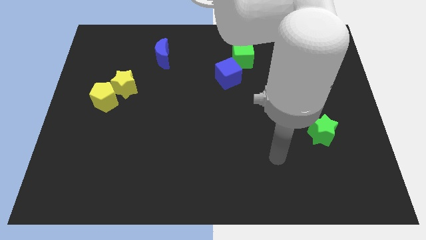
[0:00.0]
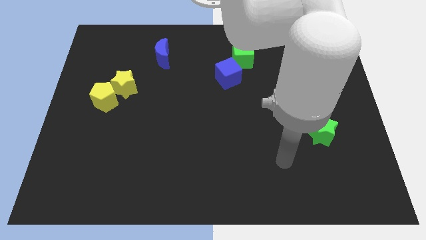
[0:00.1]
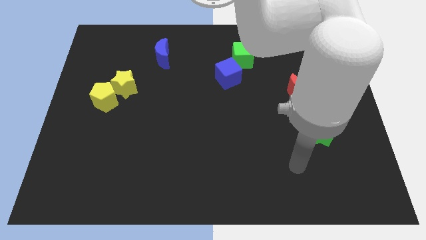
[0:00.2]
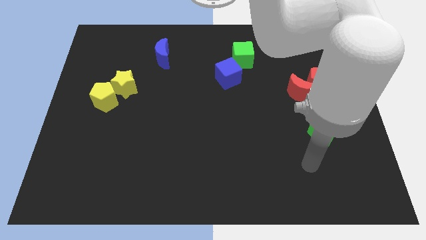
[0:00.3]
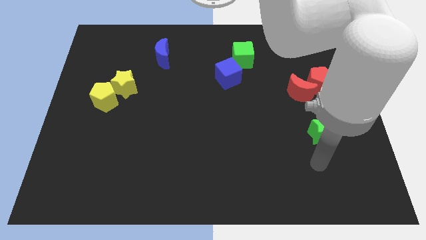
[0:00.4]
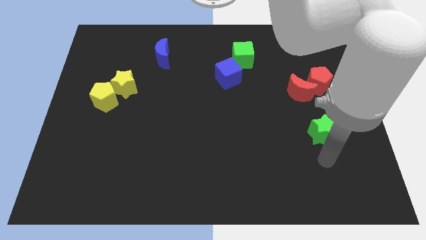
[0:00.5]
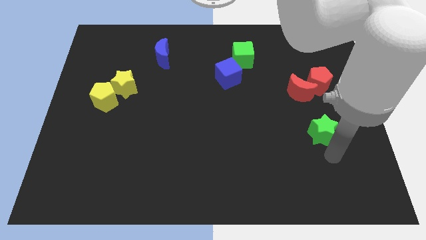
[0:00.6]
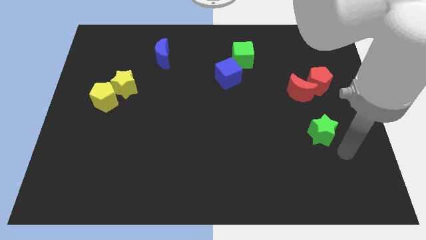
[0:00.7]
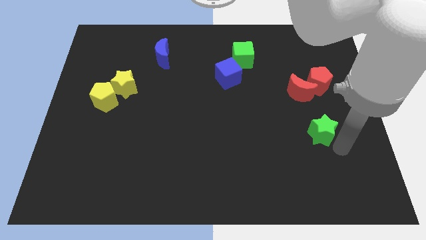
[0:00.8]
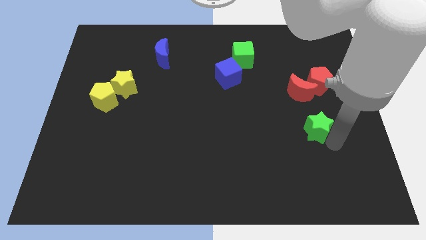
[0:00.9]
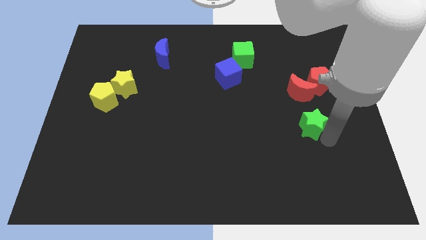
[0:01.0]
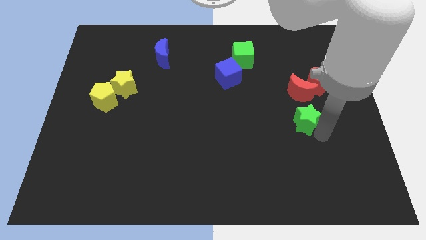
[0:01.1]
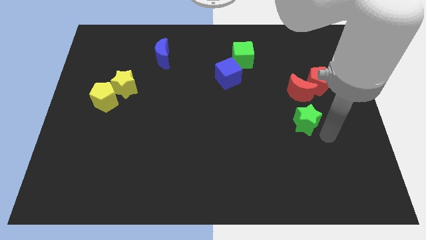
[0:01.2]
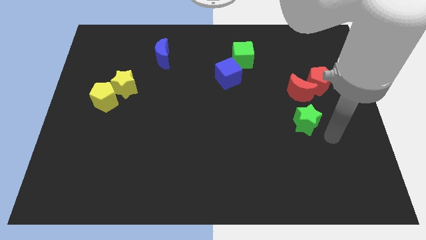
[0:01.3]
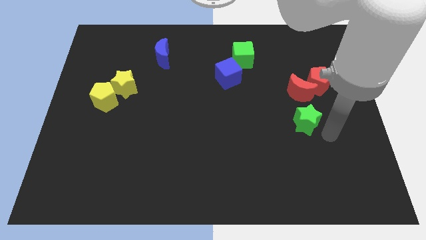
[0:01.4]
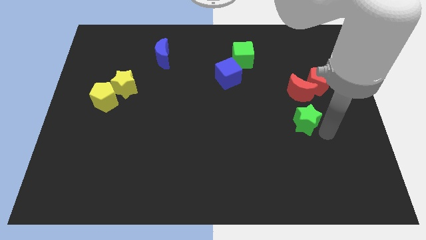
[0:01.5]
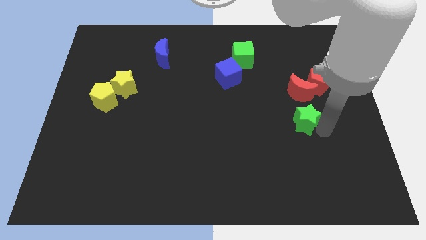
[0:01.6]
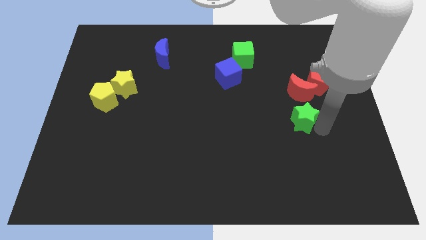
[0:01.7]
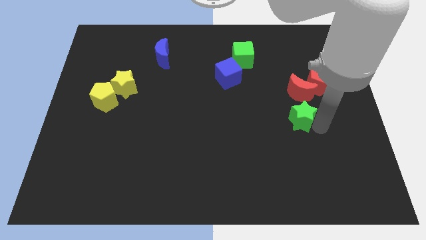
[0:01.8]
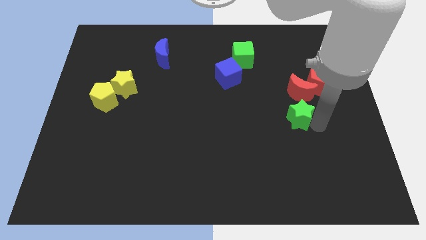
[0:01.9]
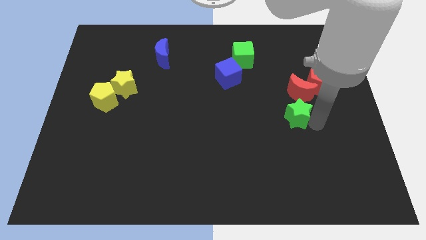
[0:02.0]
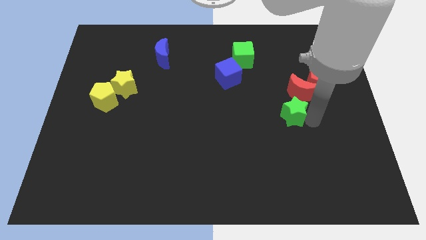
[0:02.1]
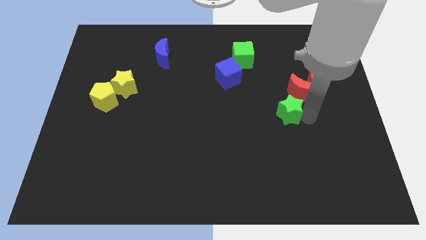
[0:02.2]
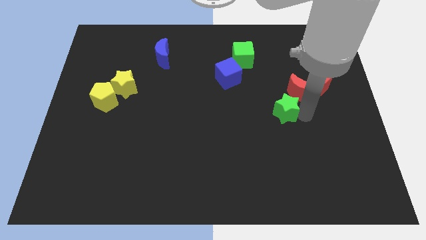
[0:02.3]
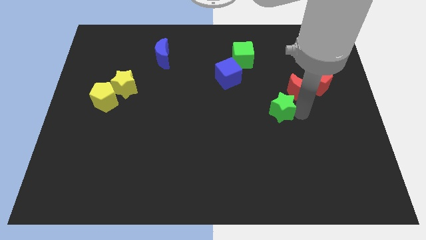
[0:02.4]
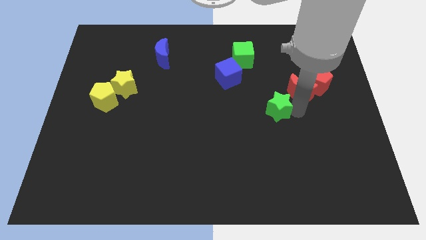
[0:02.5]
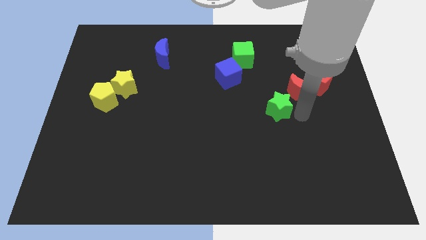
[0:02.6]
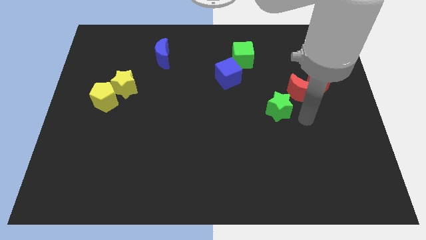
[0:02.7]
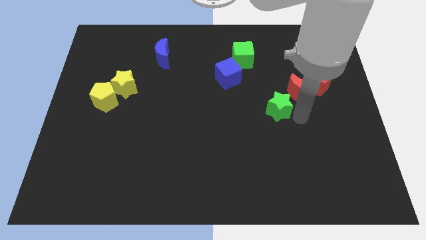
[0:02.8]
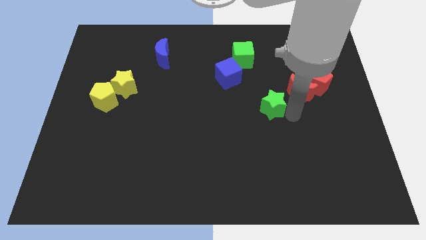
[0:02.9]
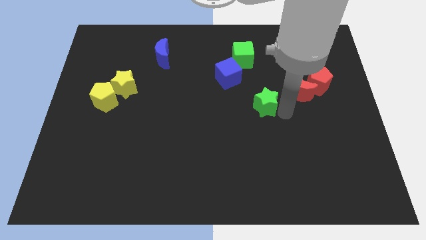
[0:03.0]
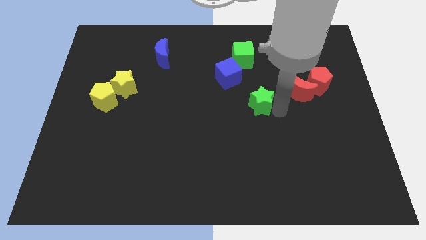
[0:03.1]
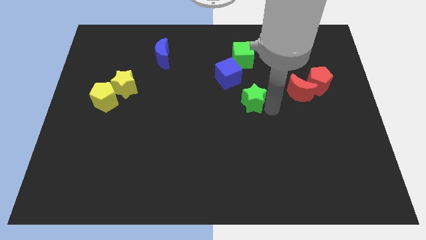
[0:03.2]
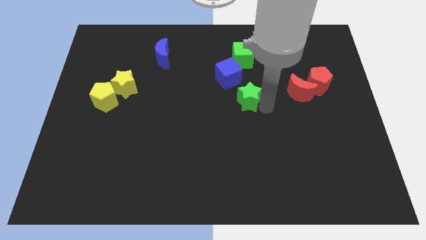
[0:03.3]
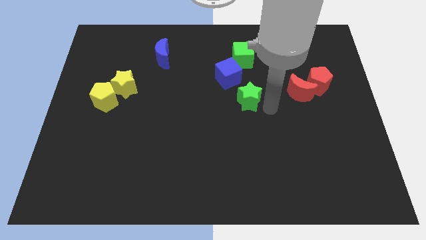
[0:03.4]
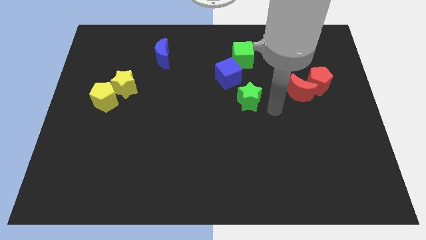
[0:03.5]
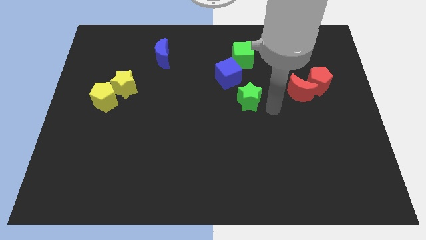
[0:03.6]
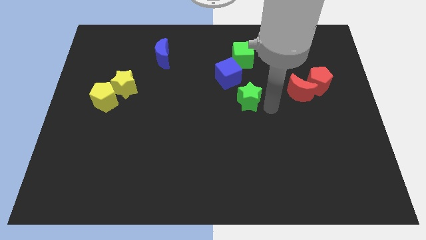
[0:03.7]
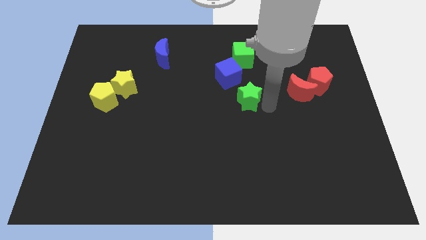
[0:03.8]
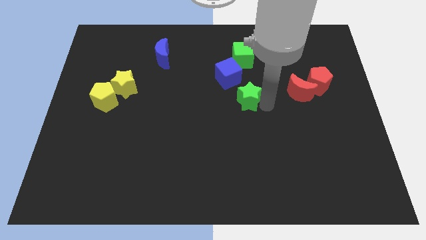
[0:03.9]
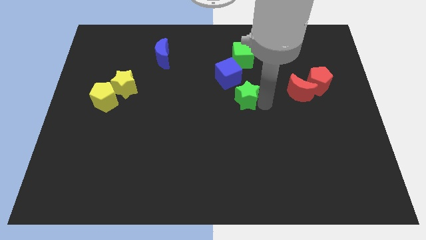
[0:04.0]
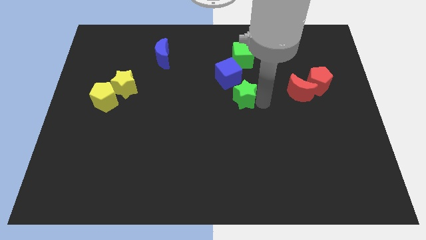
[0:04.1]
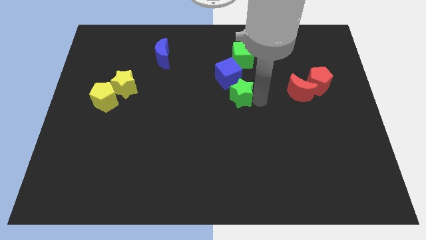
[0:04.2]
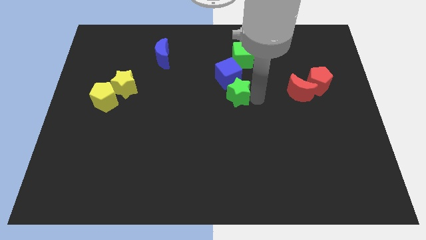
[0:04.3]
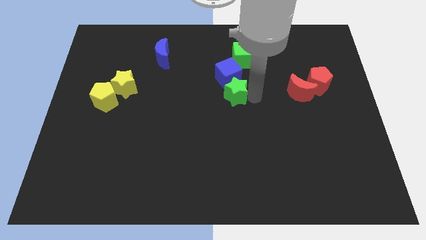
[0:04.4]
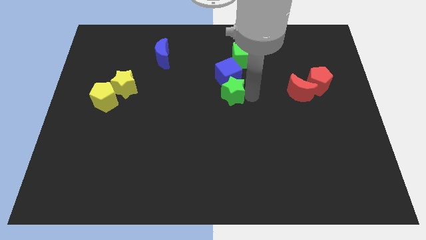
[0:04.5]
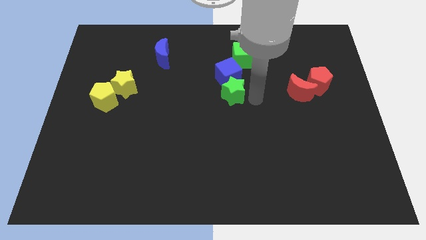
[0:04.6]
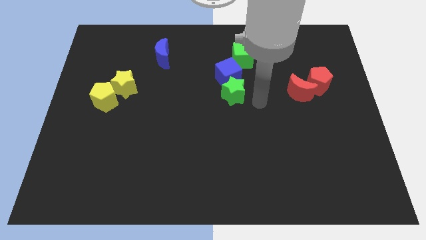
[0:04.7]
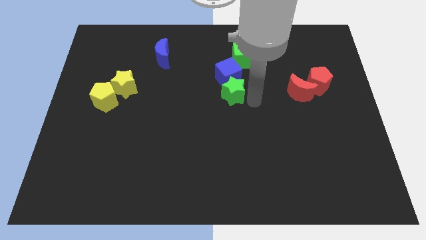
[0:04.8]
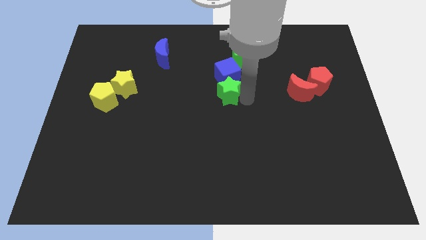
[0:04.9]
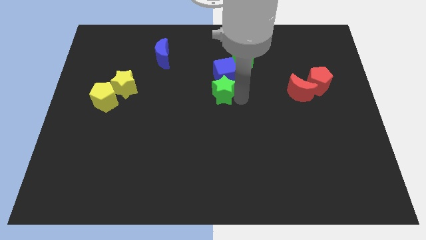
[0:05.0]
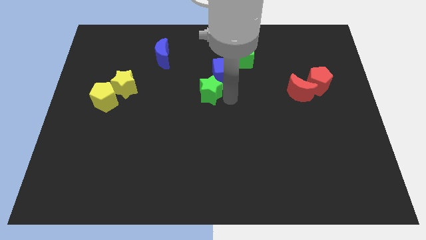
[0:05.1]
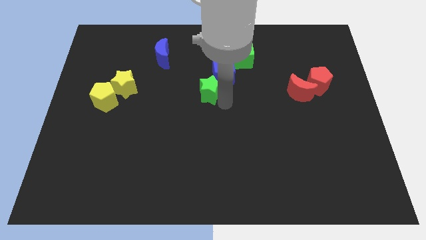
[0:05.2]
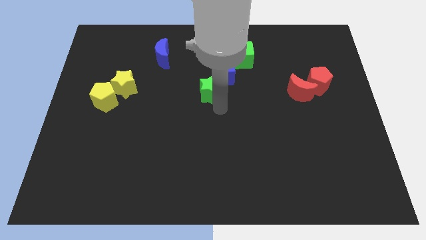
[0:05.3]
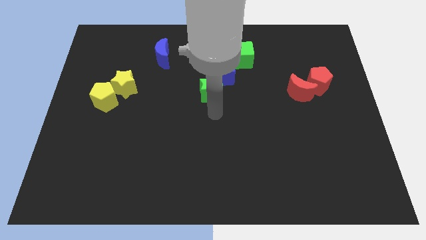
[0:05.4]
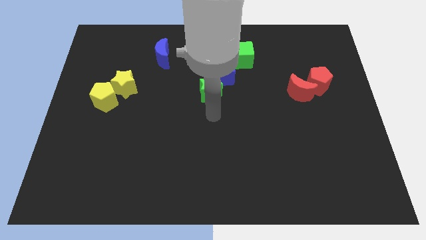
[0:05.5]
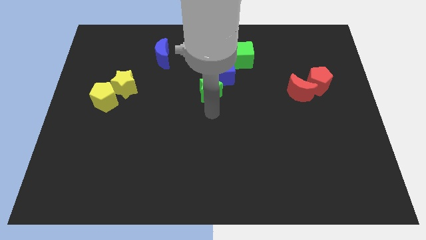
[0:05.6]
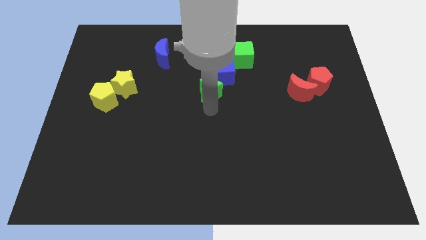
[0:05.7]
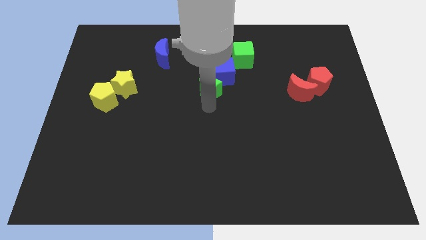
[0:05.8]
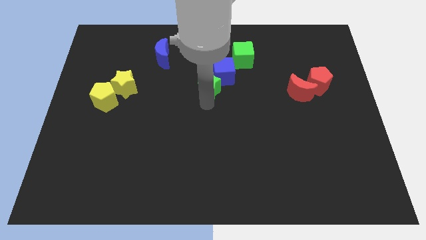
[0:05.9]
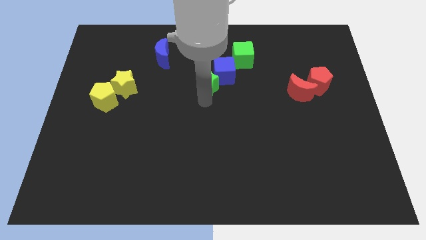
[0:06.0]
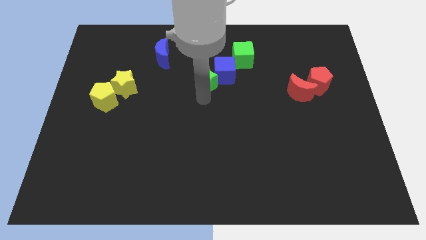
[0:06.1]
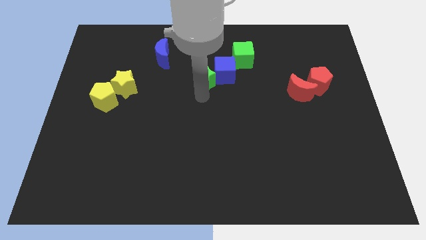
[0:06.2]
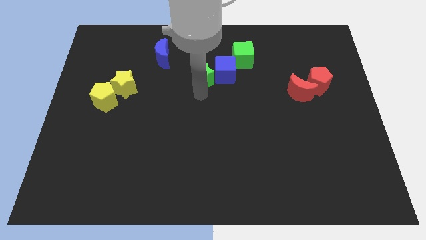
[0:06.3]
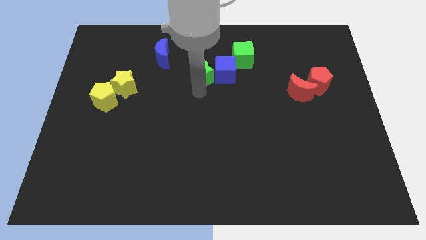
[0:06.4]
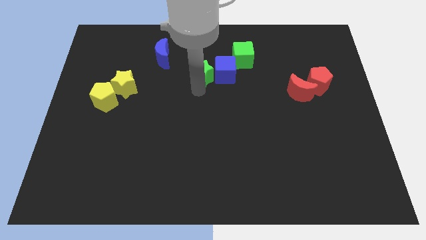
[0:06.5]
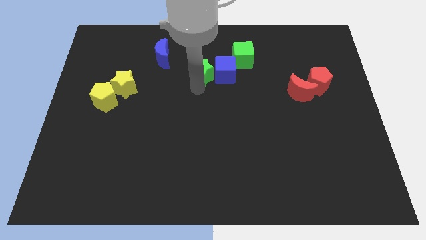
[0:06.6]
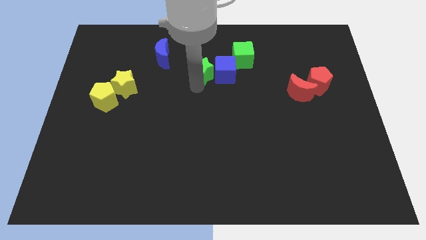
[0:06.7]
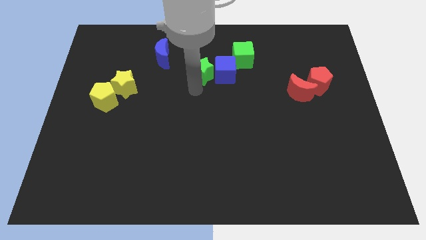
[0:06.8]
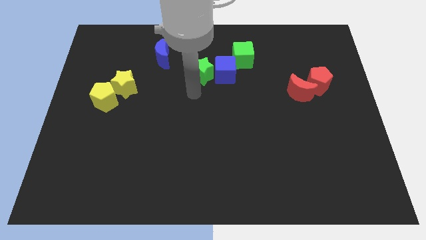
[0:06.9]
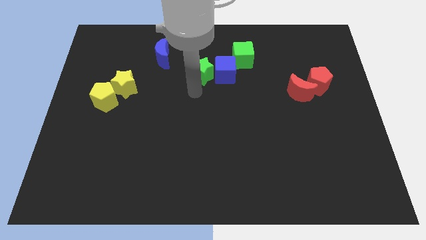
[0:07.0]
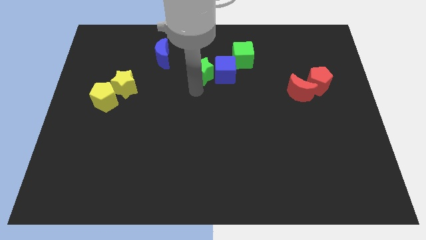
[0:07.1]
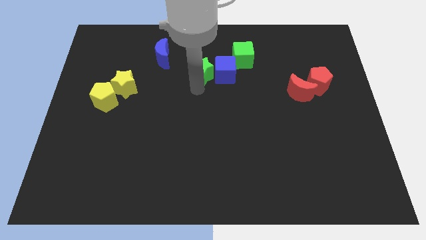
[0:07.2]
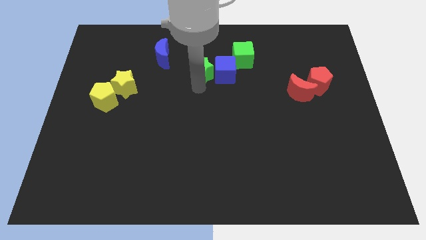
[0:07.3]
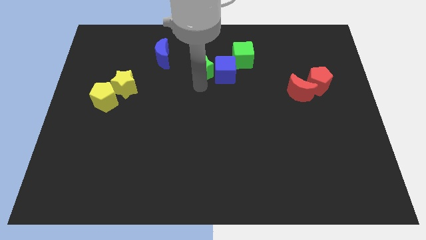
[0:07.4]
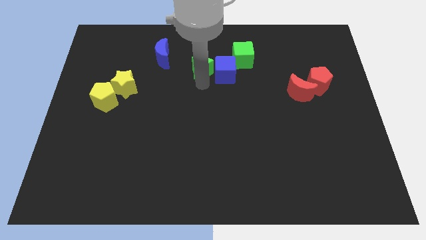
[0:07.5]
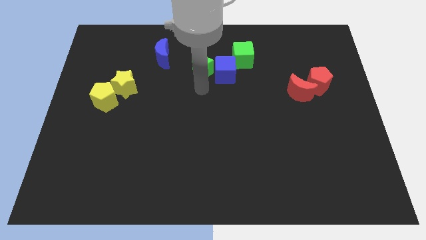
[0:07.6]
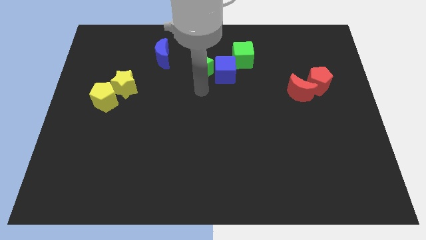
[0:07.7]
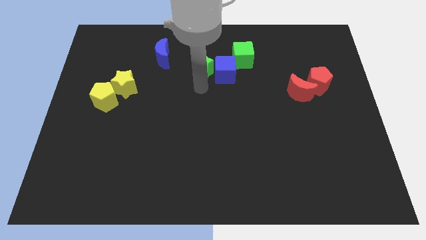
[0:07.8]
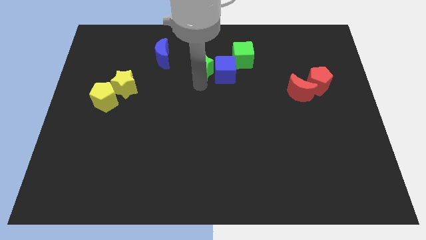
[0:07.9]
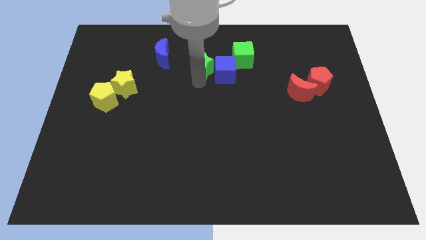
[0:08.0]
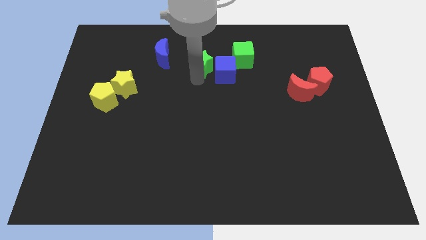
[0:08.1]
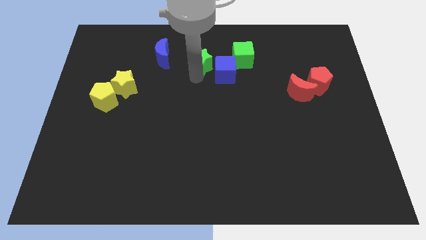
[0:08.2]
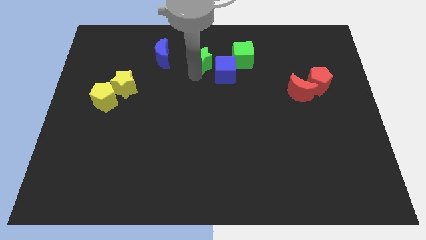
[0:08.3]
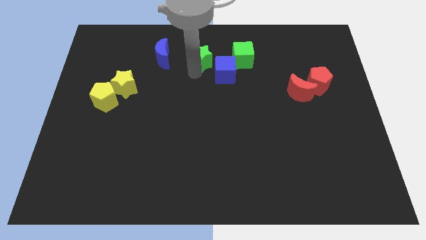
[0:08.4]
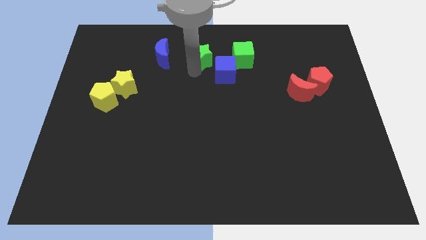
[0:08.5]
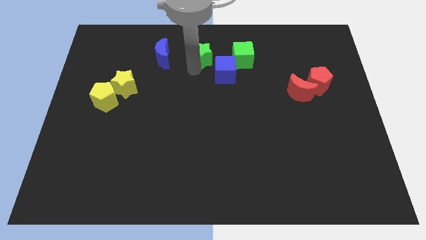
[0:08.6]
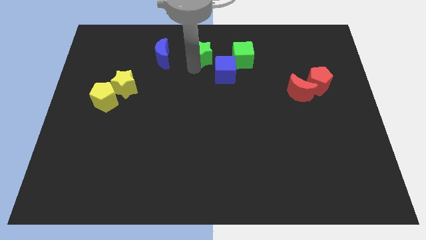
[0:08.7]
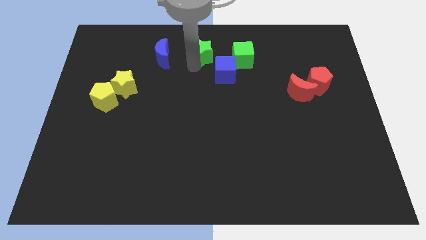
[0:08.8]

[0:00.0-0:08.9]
move the green star to the towards your base
